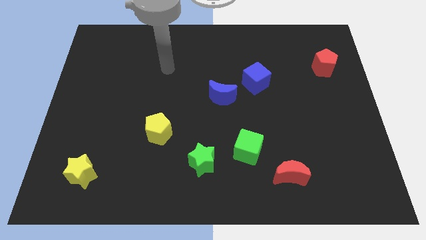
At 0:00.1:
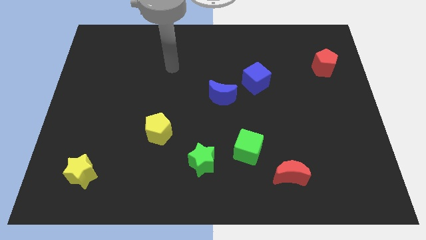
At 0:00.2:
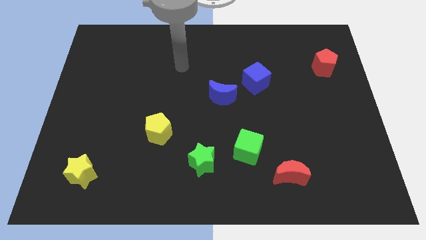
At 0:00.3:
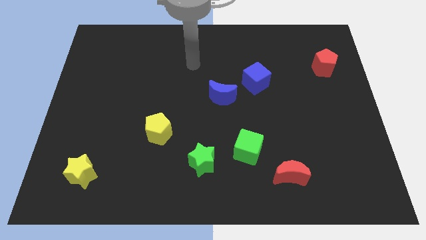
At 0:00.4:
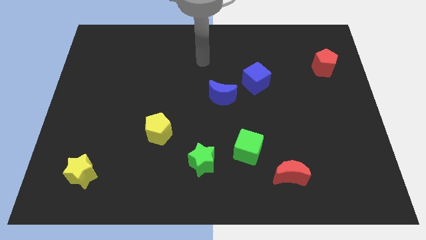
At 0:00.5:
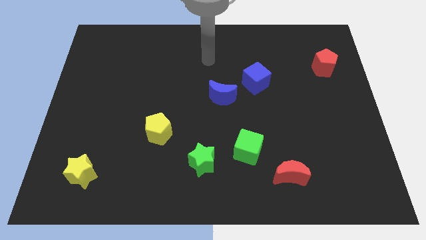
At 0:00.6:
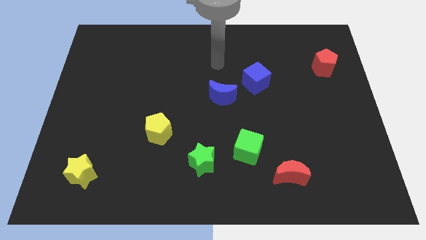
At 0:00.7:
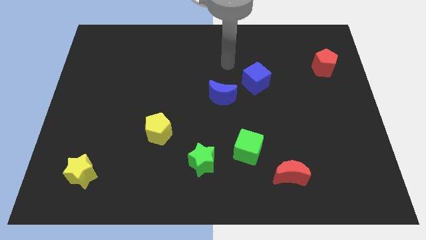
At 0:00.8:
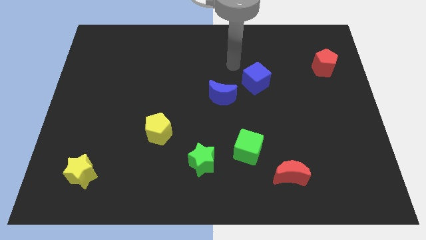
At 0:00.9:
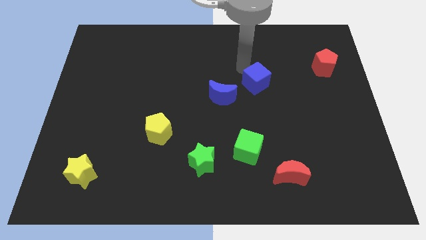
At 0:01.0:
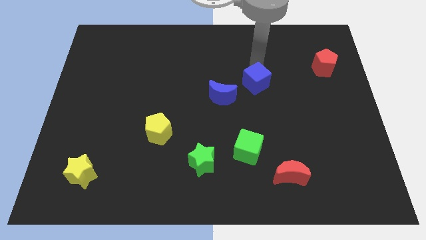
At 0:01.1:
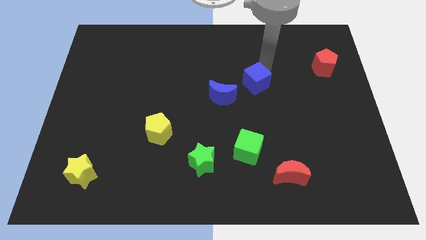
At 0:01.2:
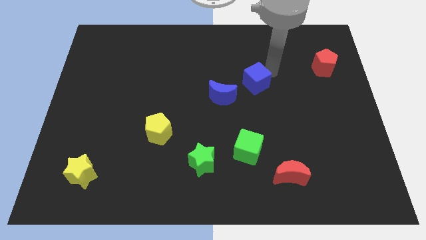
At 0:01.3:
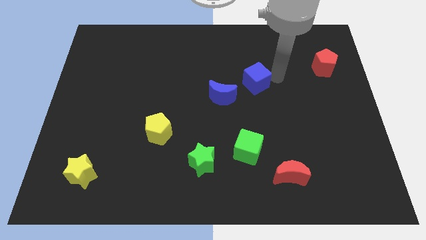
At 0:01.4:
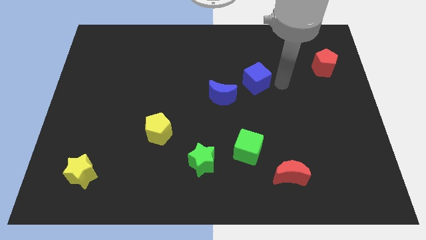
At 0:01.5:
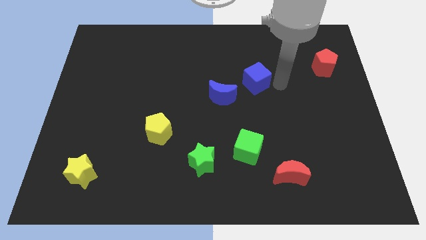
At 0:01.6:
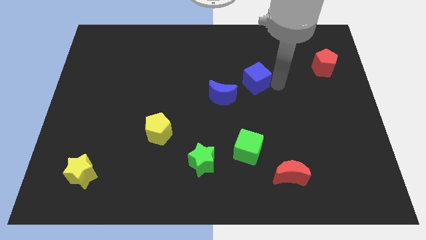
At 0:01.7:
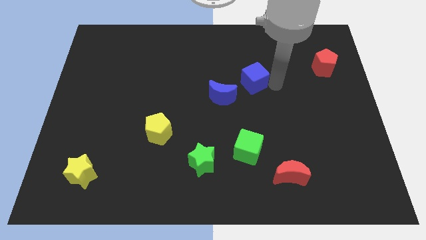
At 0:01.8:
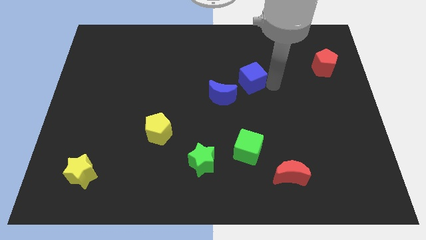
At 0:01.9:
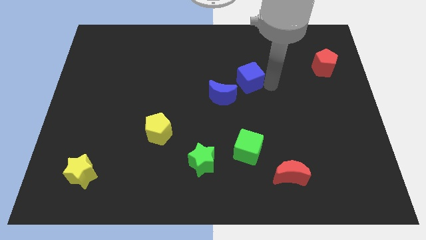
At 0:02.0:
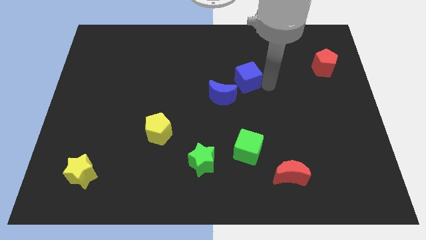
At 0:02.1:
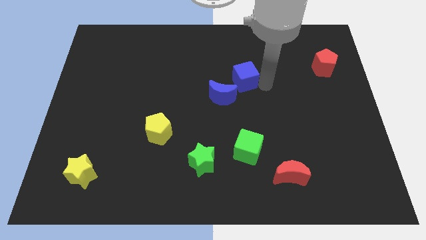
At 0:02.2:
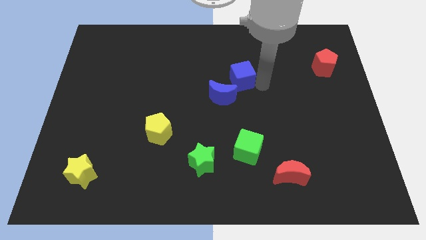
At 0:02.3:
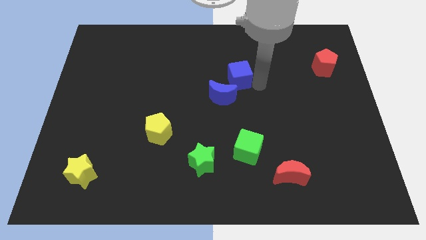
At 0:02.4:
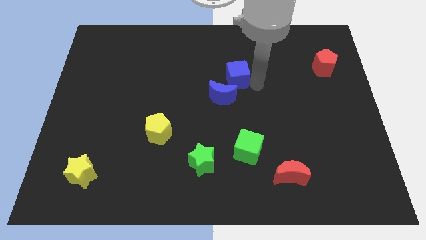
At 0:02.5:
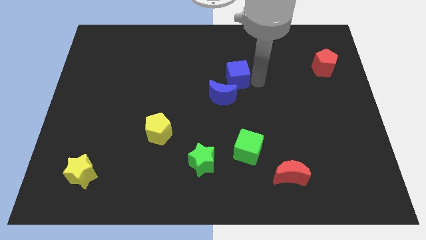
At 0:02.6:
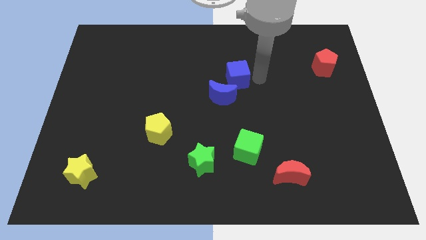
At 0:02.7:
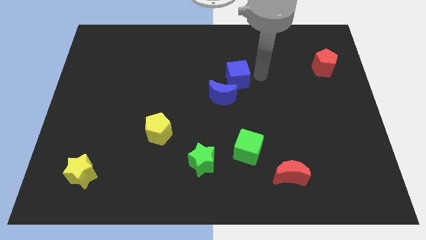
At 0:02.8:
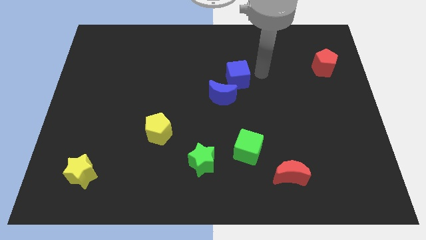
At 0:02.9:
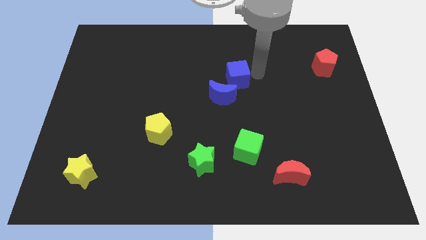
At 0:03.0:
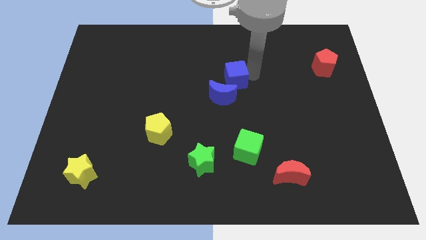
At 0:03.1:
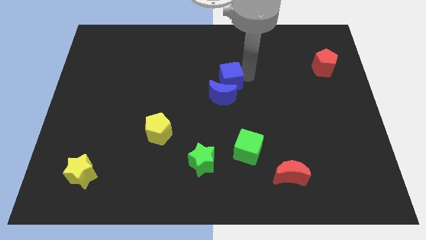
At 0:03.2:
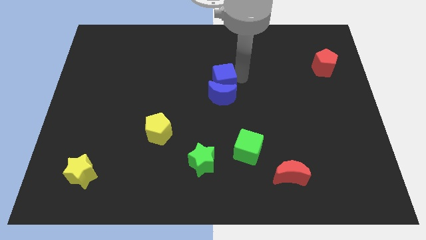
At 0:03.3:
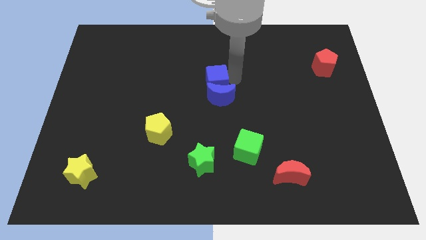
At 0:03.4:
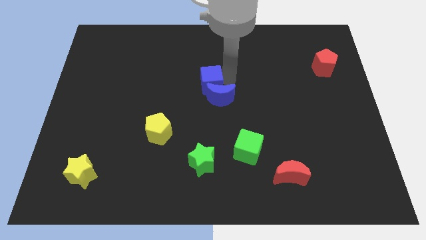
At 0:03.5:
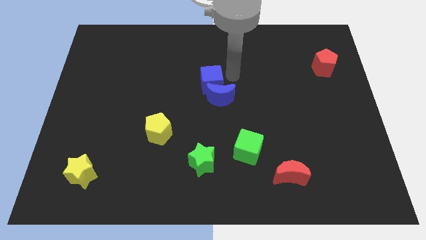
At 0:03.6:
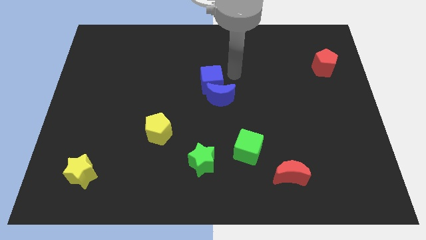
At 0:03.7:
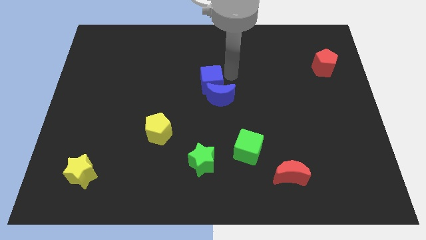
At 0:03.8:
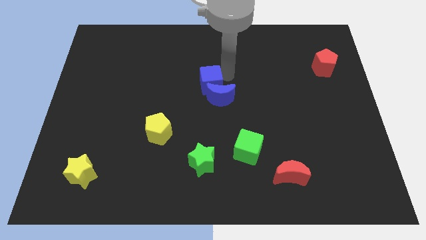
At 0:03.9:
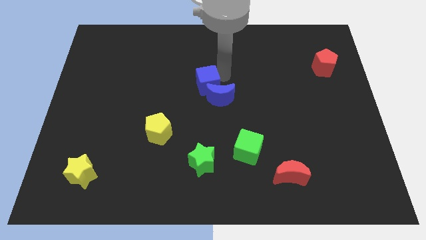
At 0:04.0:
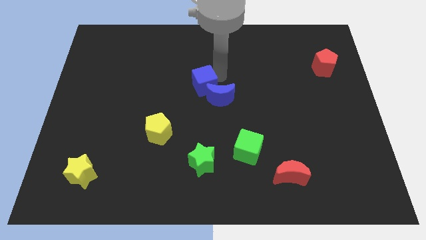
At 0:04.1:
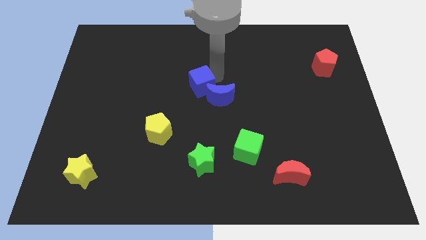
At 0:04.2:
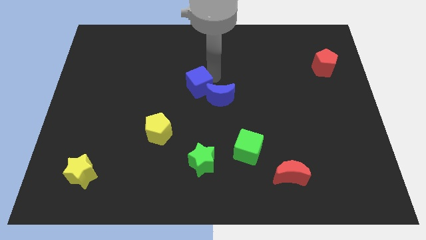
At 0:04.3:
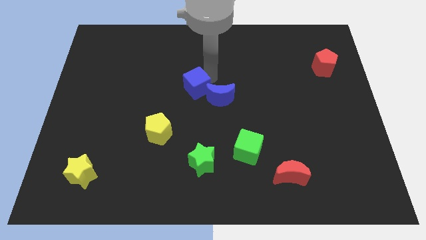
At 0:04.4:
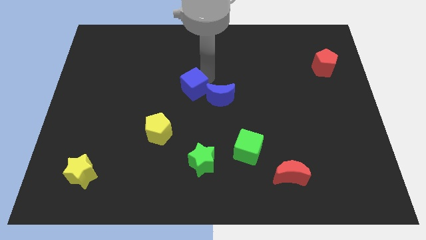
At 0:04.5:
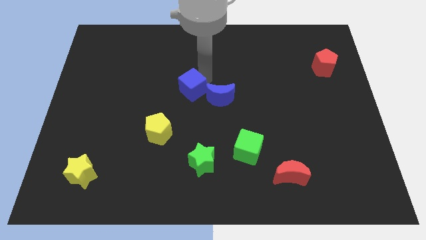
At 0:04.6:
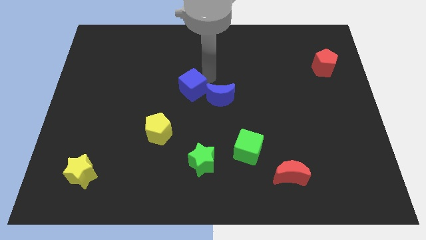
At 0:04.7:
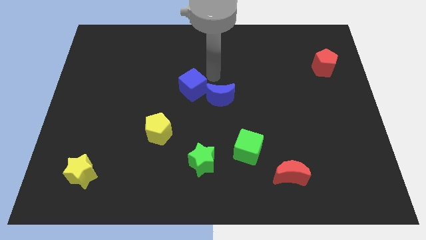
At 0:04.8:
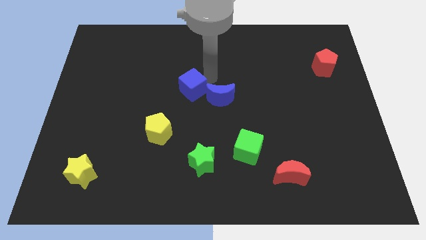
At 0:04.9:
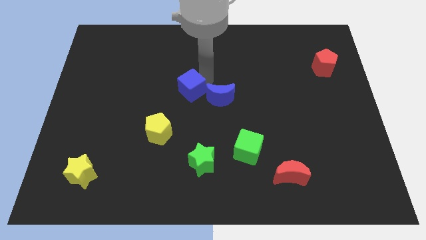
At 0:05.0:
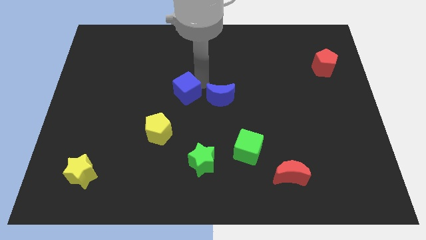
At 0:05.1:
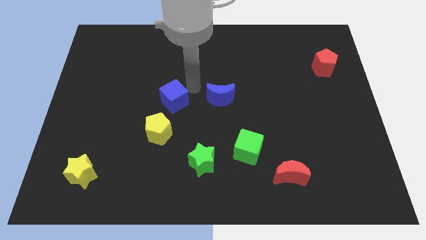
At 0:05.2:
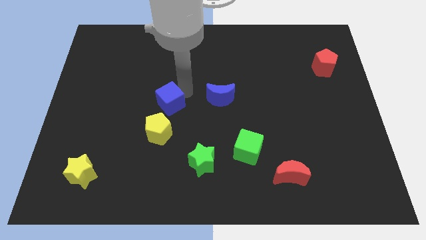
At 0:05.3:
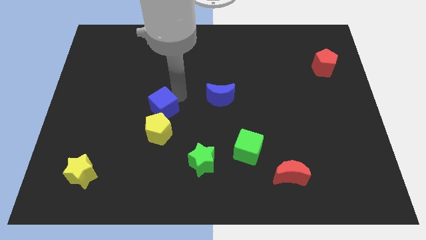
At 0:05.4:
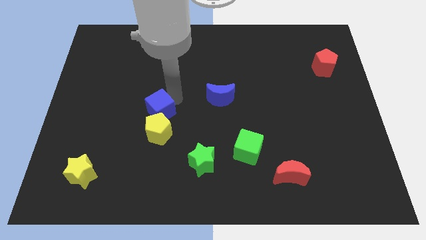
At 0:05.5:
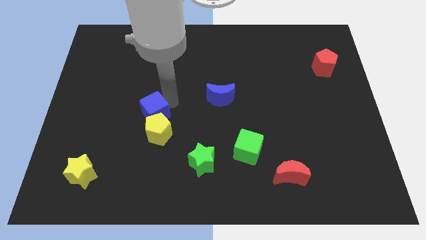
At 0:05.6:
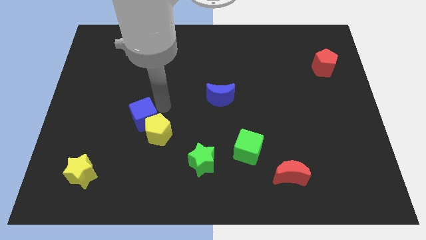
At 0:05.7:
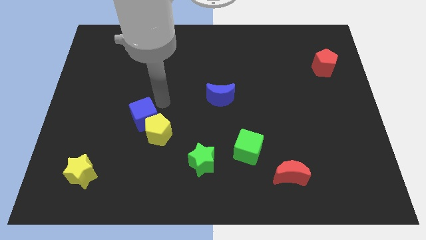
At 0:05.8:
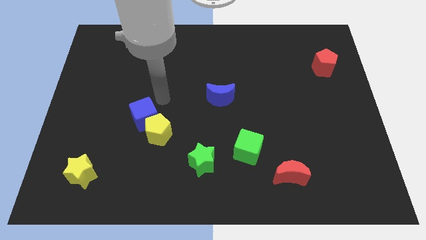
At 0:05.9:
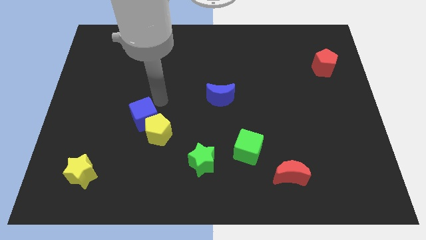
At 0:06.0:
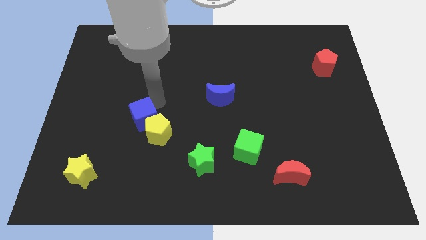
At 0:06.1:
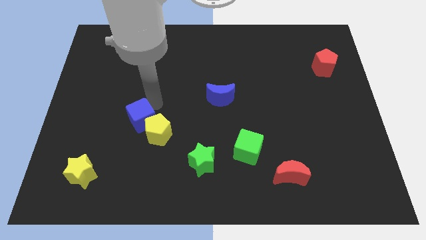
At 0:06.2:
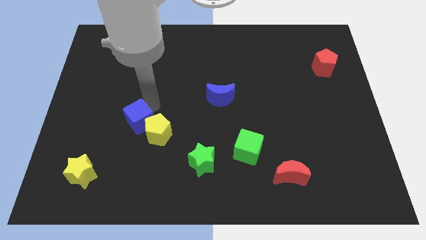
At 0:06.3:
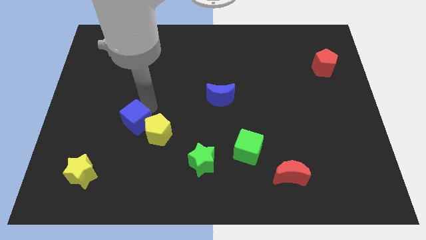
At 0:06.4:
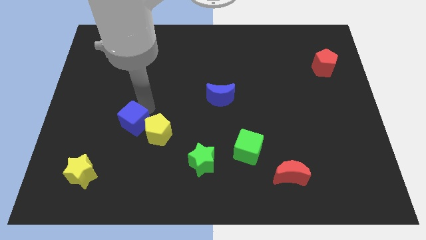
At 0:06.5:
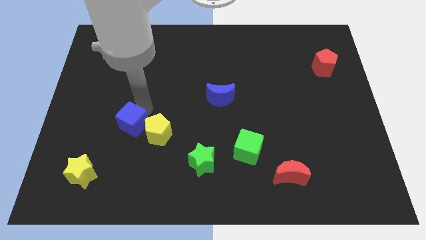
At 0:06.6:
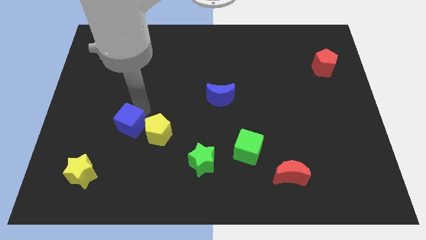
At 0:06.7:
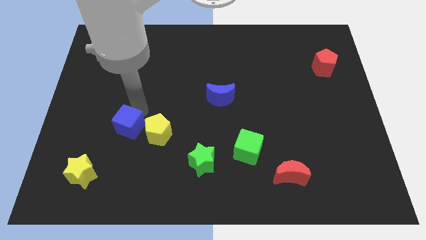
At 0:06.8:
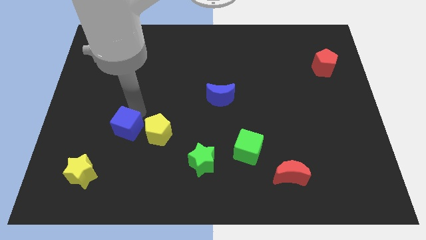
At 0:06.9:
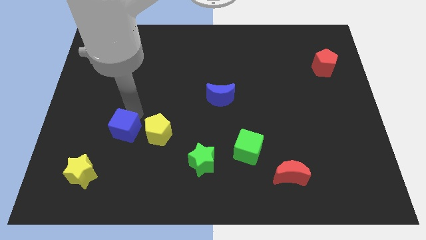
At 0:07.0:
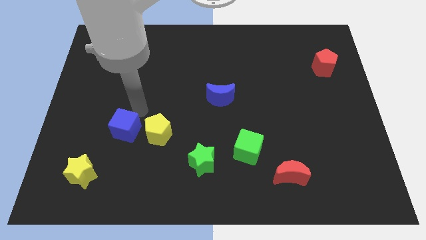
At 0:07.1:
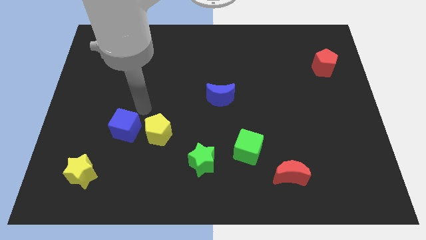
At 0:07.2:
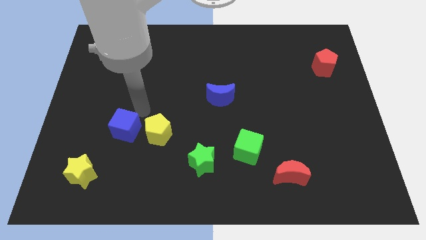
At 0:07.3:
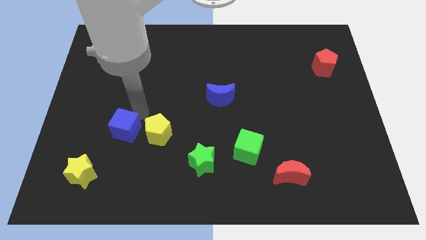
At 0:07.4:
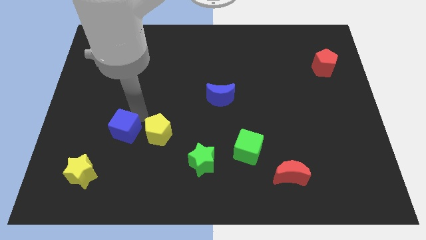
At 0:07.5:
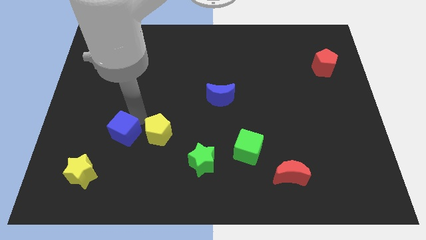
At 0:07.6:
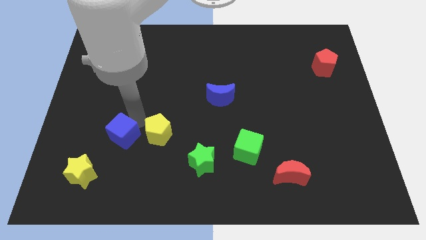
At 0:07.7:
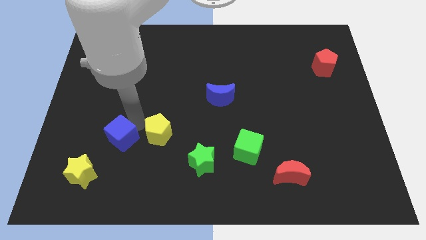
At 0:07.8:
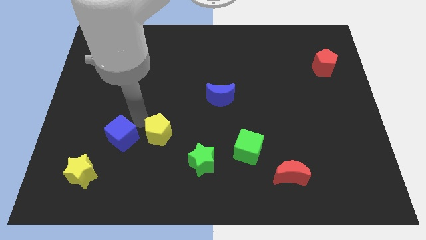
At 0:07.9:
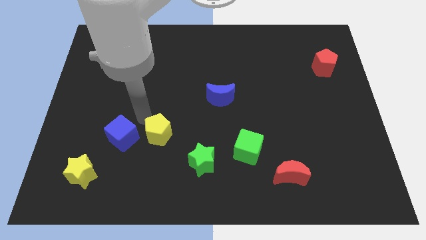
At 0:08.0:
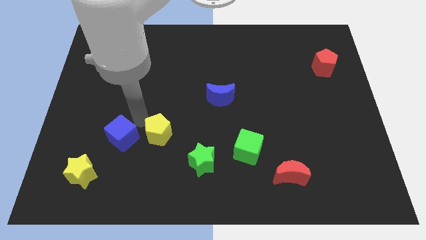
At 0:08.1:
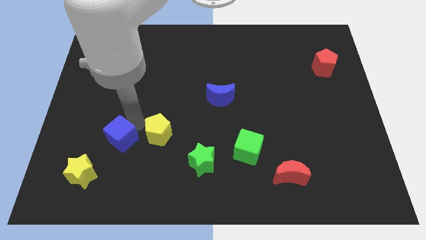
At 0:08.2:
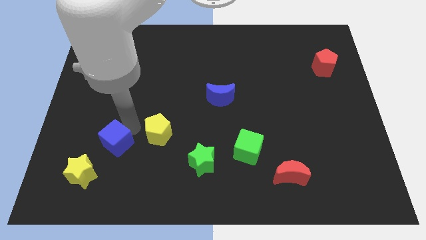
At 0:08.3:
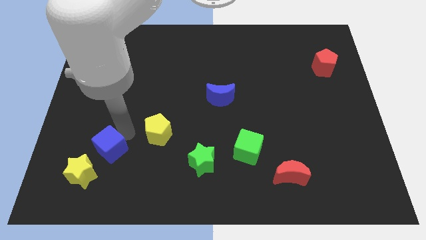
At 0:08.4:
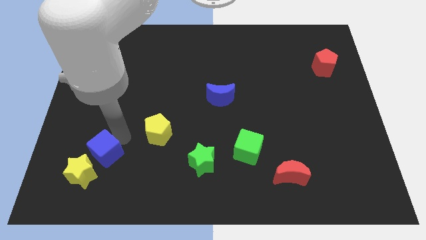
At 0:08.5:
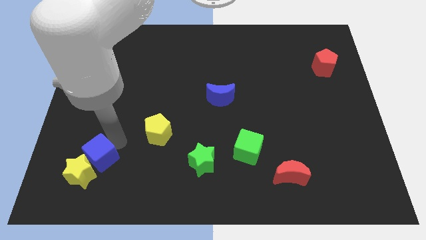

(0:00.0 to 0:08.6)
put the blue cube next to the yellow star
